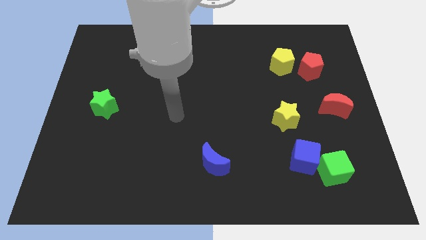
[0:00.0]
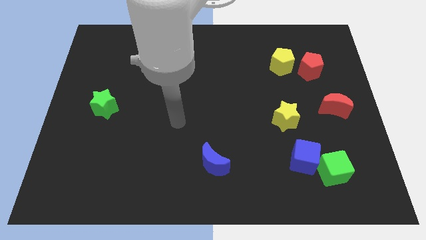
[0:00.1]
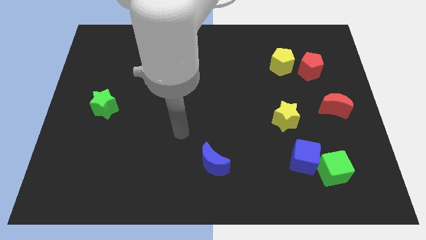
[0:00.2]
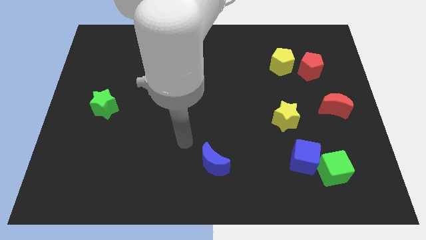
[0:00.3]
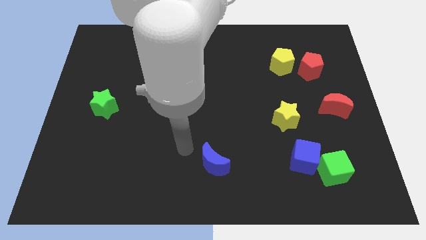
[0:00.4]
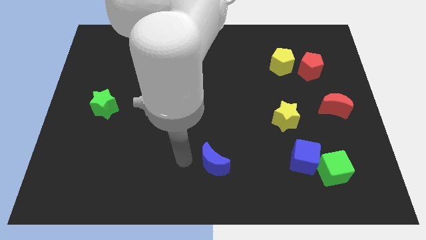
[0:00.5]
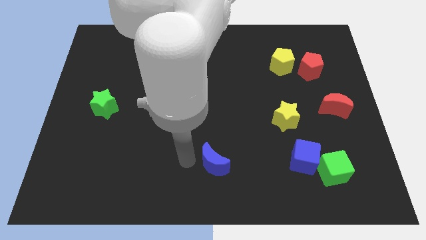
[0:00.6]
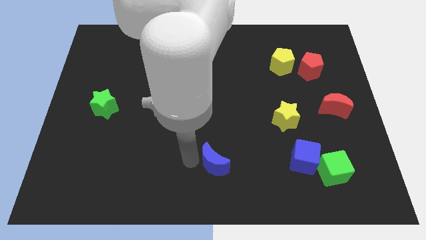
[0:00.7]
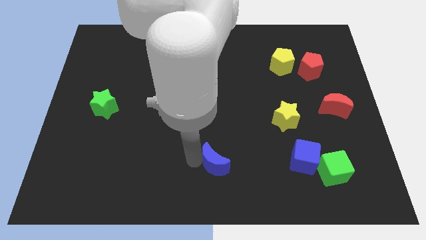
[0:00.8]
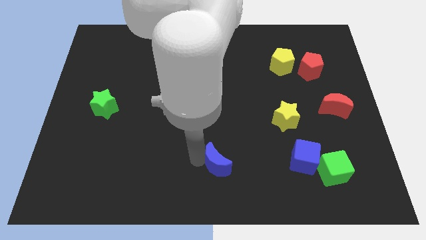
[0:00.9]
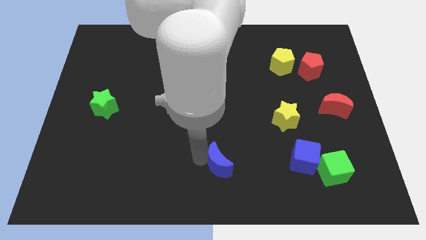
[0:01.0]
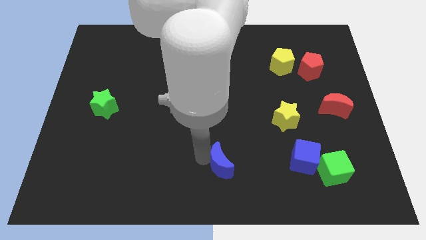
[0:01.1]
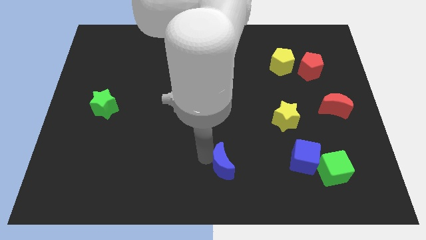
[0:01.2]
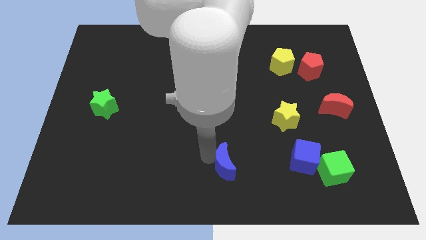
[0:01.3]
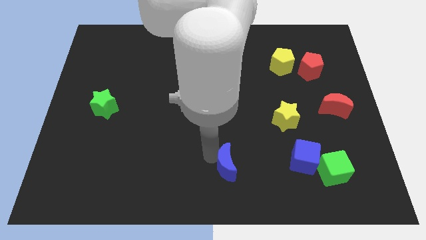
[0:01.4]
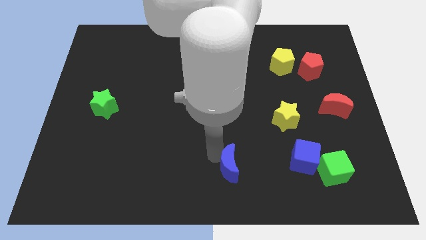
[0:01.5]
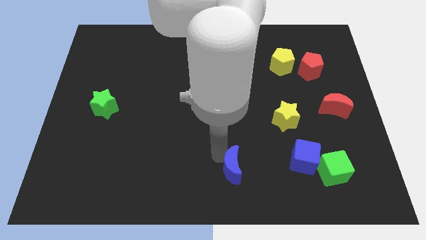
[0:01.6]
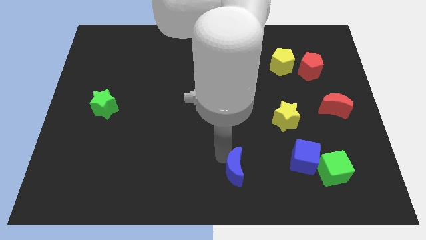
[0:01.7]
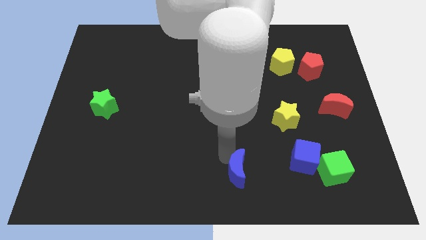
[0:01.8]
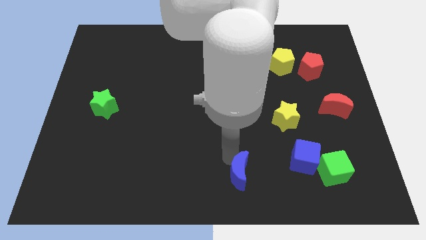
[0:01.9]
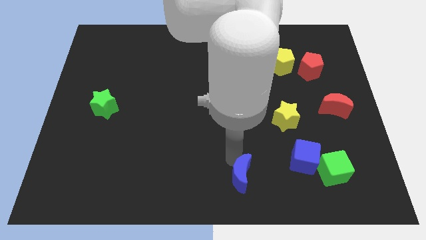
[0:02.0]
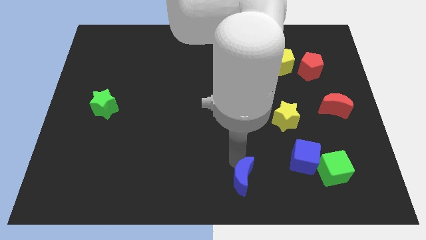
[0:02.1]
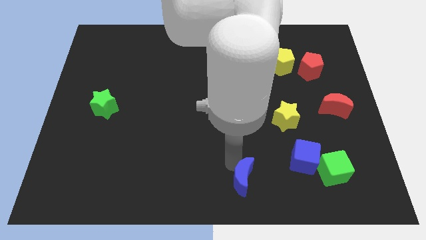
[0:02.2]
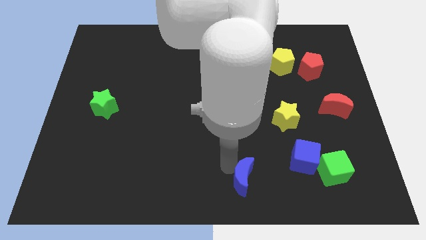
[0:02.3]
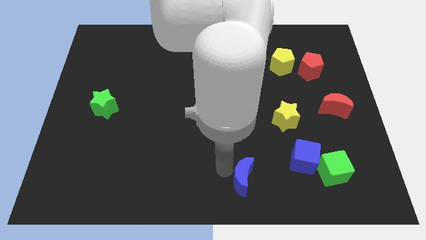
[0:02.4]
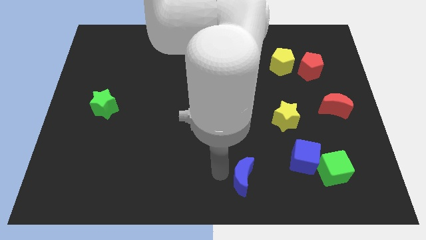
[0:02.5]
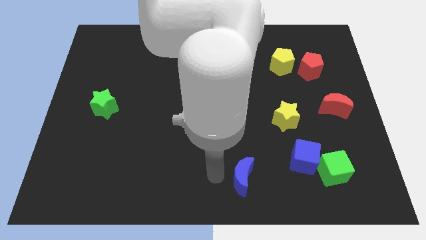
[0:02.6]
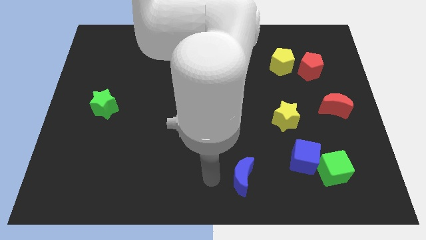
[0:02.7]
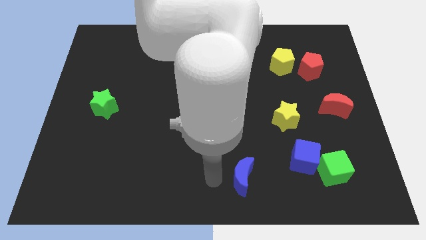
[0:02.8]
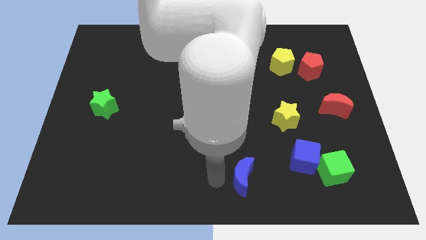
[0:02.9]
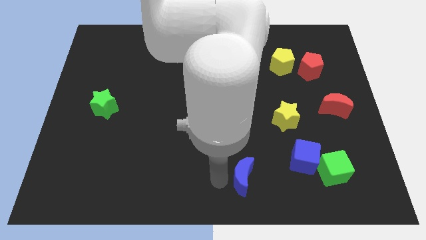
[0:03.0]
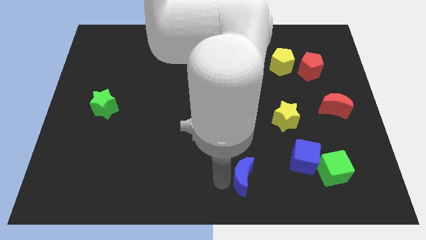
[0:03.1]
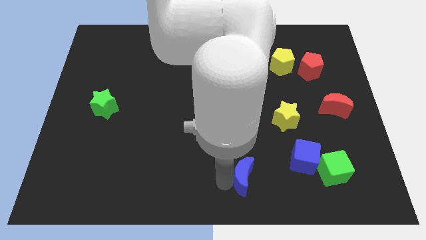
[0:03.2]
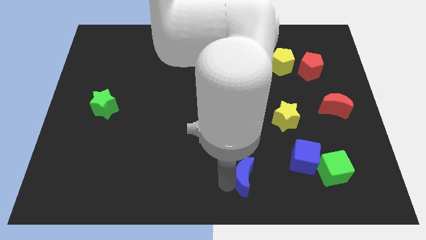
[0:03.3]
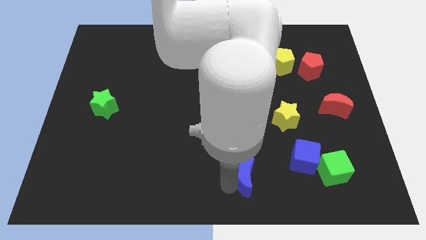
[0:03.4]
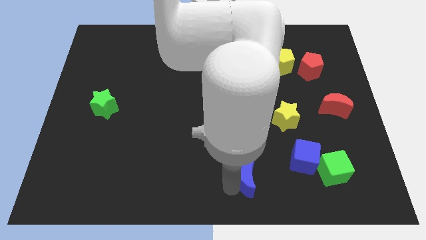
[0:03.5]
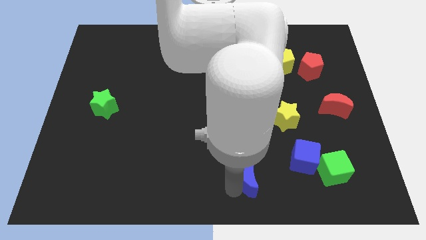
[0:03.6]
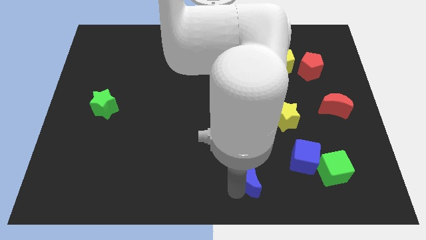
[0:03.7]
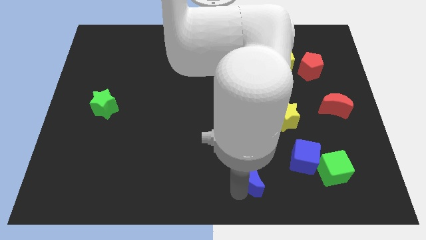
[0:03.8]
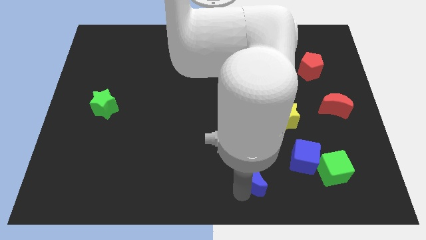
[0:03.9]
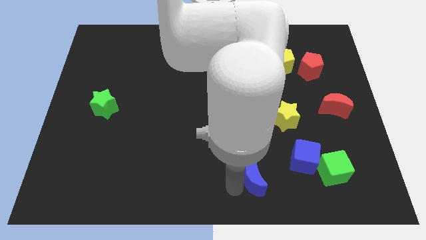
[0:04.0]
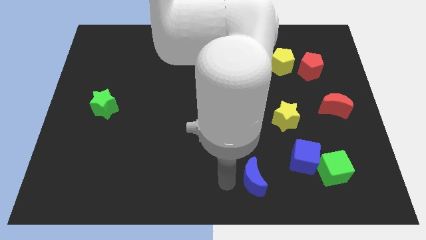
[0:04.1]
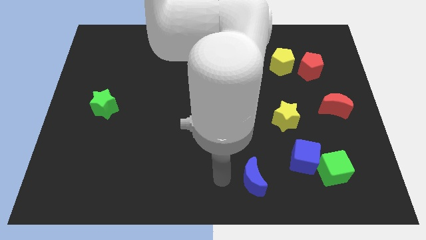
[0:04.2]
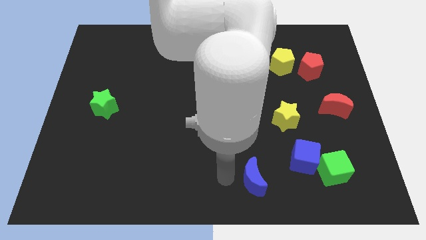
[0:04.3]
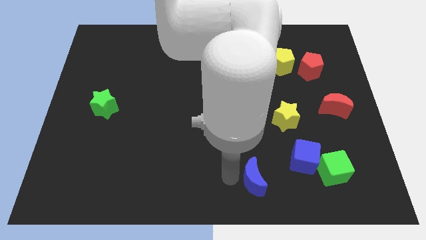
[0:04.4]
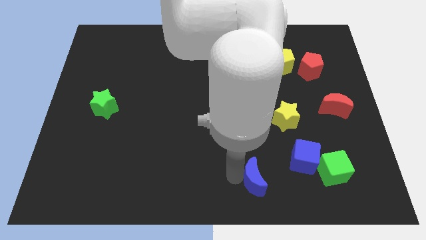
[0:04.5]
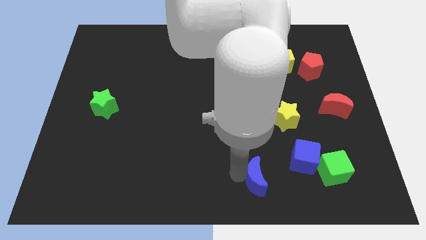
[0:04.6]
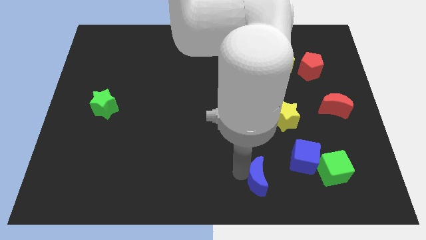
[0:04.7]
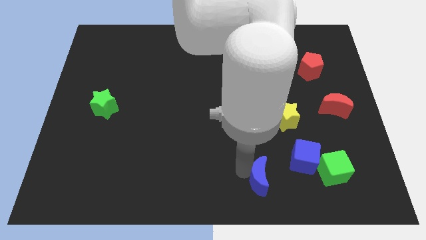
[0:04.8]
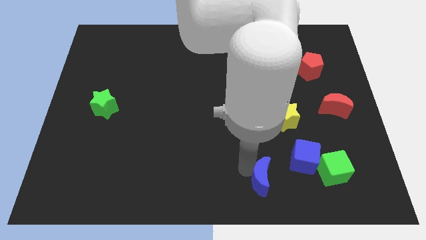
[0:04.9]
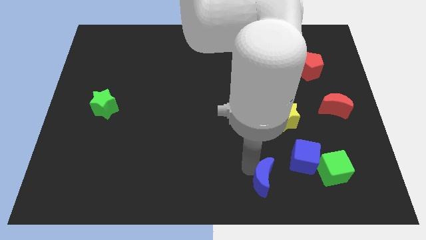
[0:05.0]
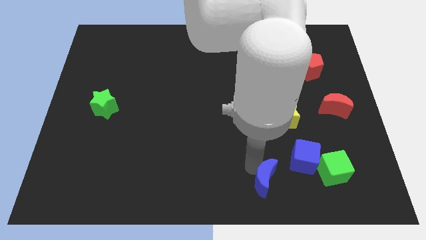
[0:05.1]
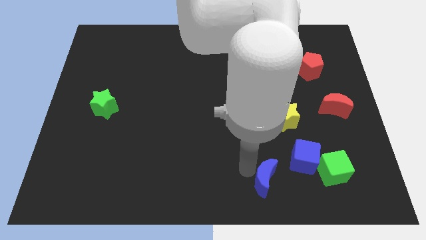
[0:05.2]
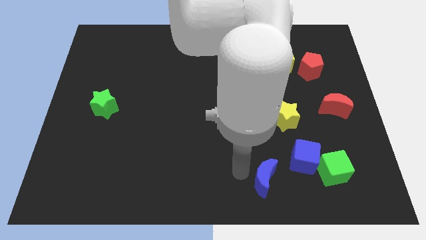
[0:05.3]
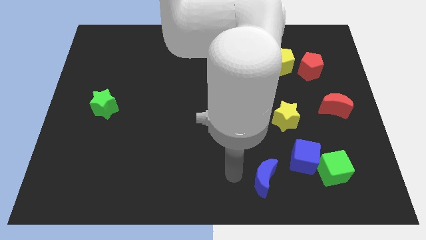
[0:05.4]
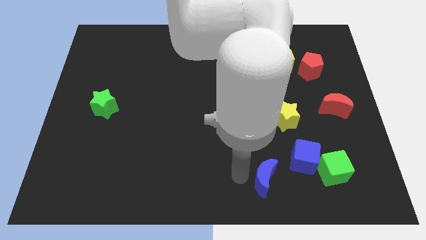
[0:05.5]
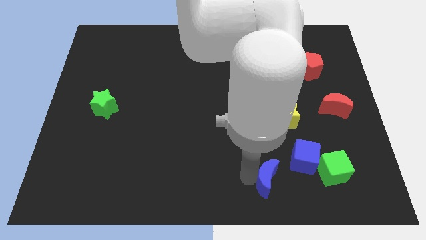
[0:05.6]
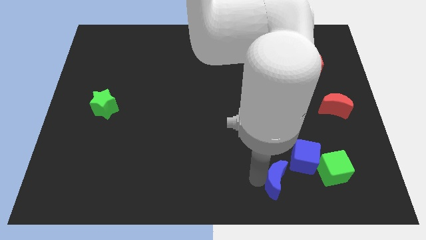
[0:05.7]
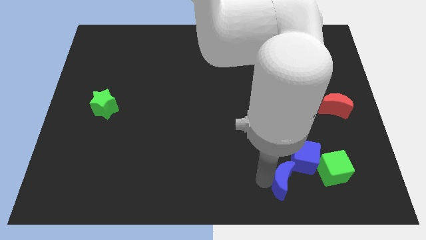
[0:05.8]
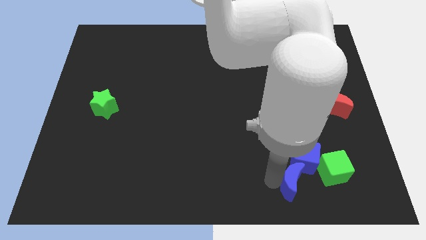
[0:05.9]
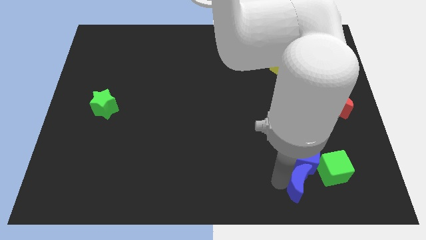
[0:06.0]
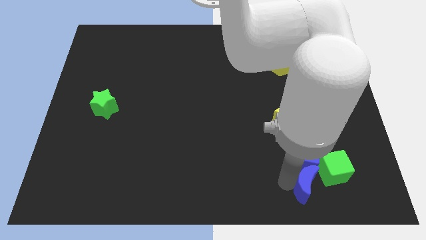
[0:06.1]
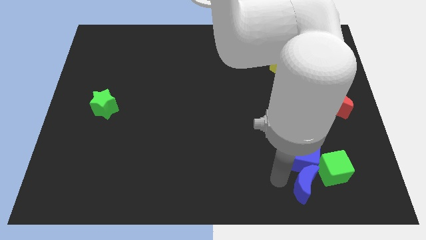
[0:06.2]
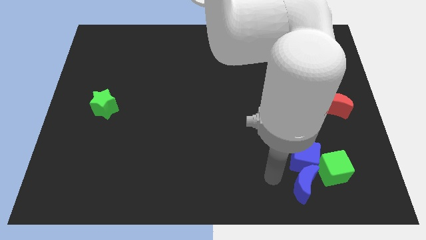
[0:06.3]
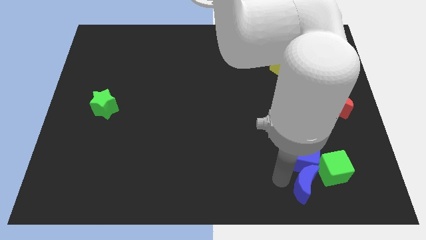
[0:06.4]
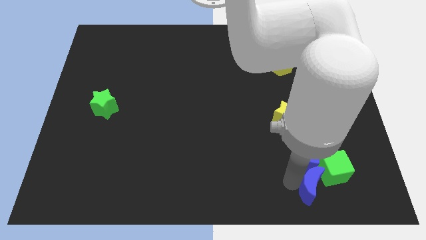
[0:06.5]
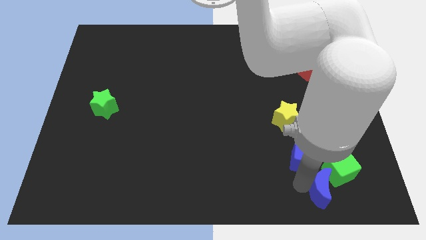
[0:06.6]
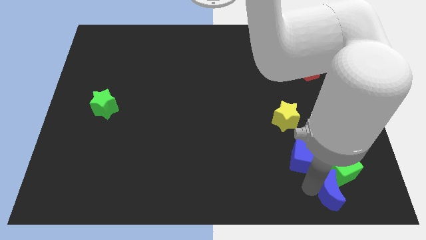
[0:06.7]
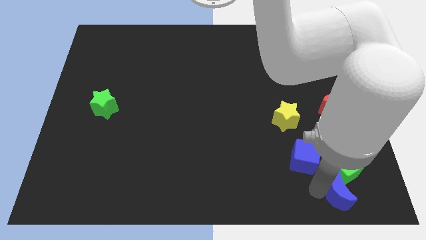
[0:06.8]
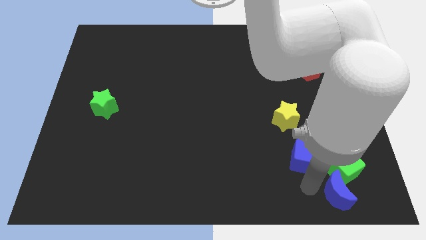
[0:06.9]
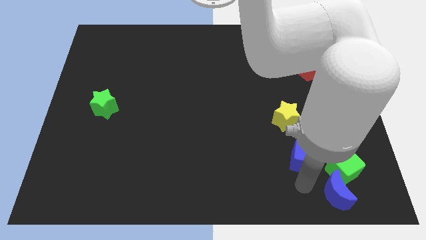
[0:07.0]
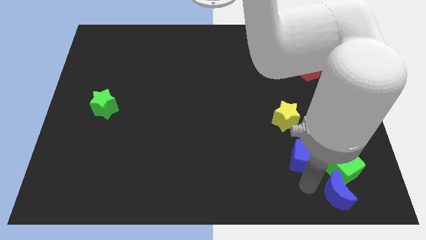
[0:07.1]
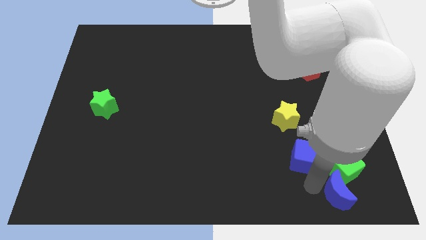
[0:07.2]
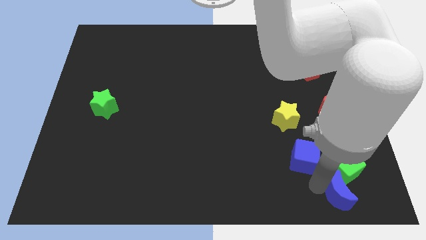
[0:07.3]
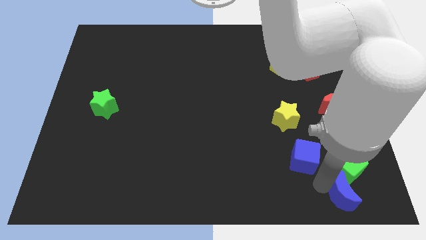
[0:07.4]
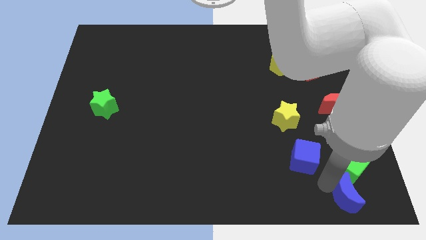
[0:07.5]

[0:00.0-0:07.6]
move the blue moon to the lower right corner
